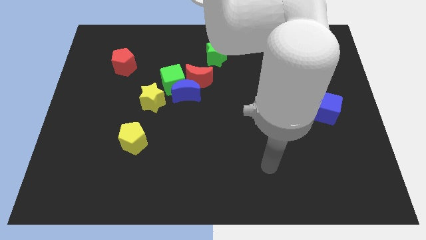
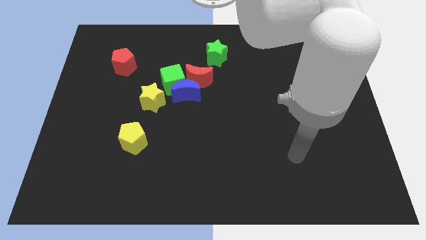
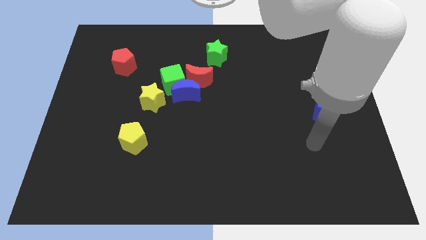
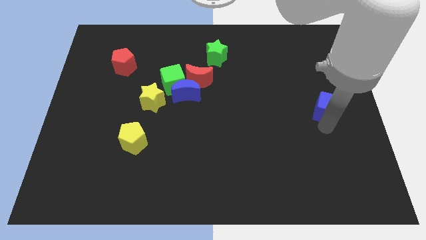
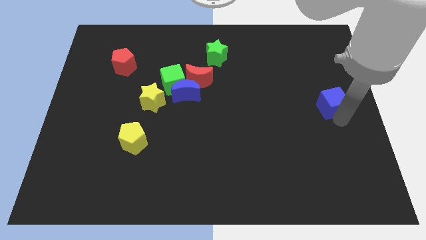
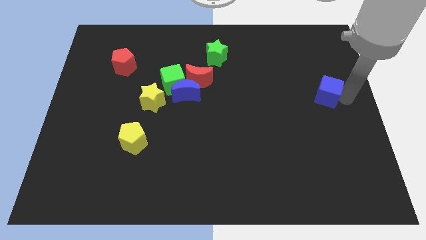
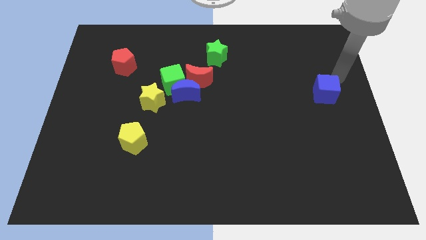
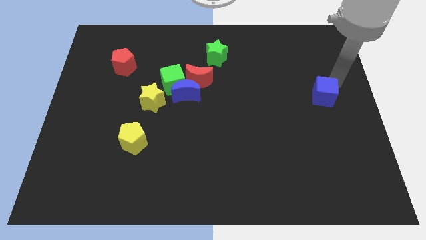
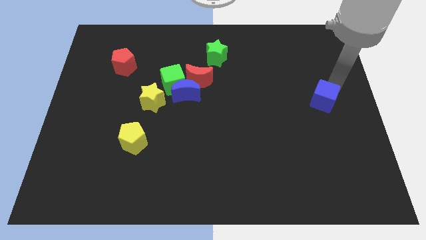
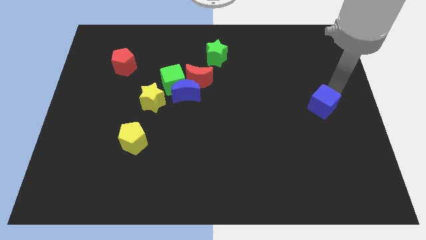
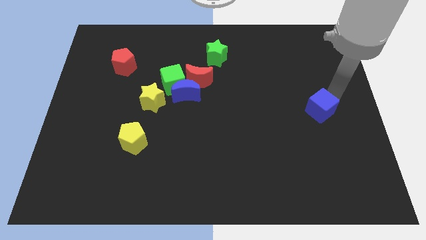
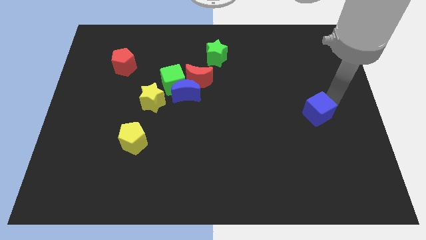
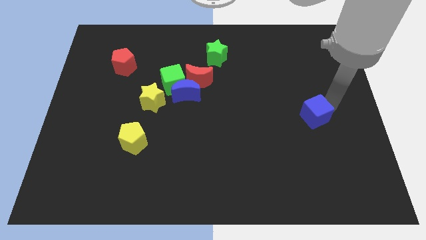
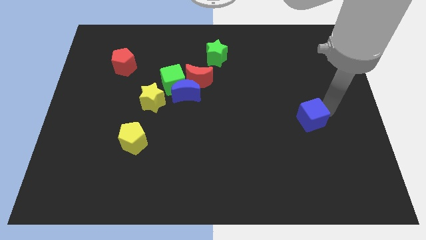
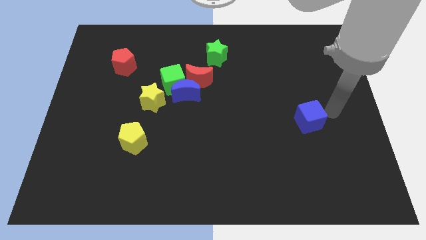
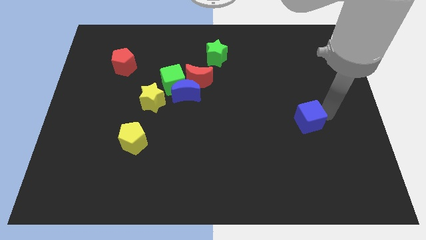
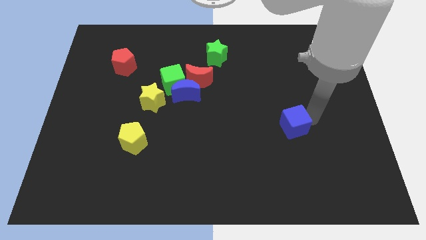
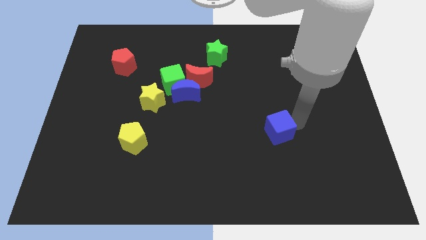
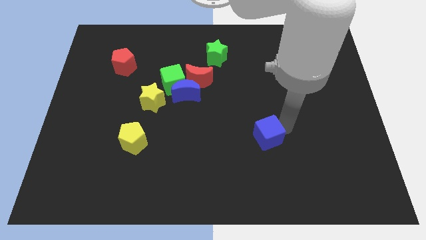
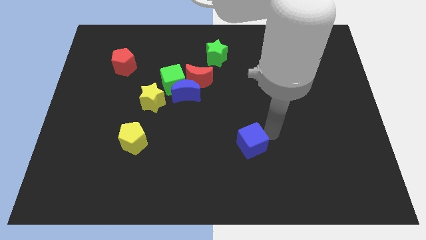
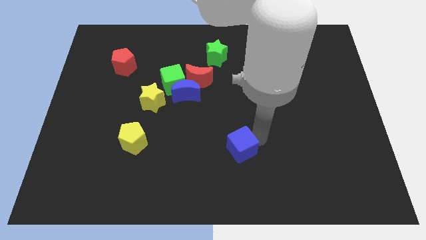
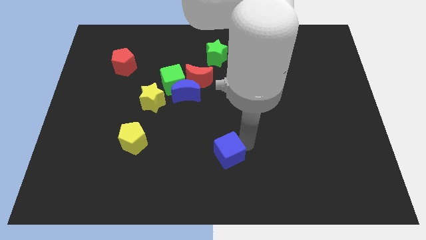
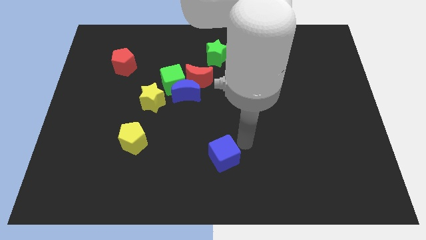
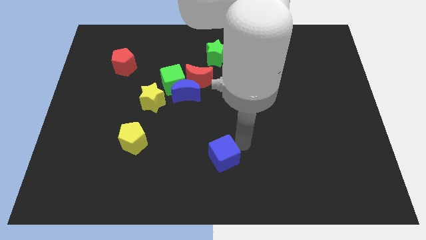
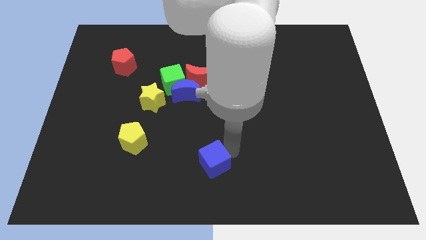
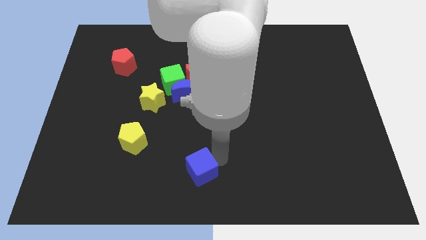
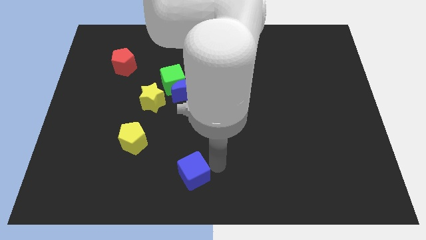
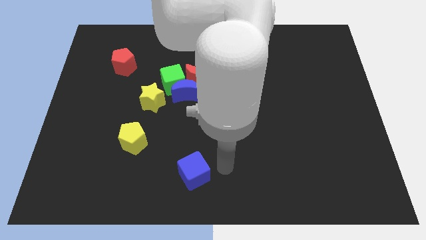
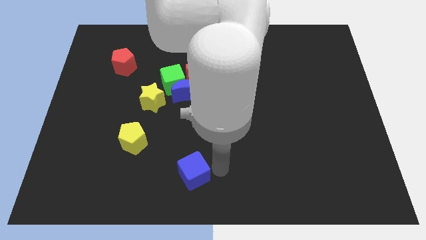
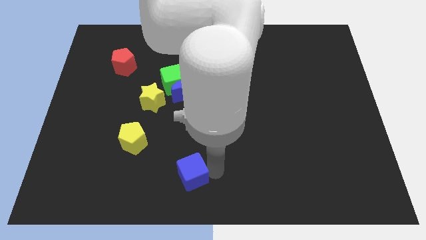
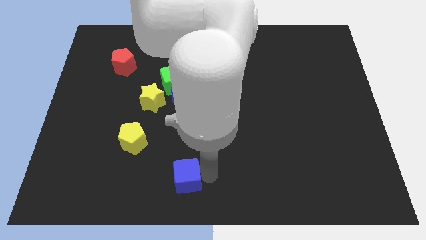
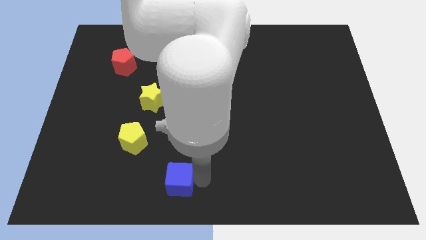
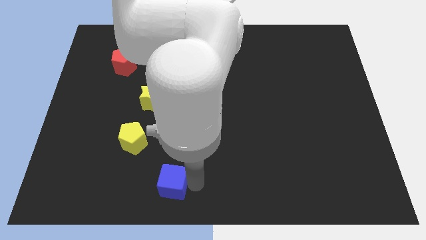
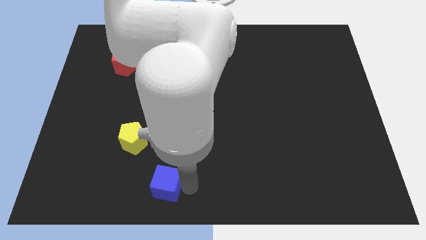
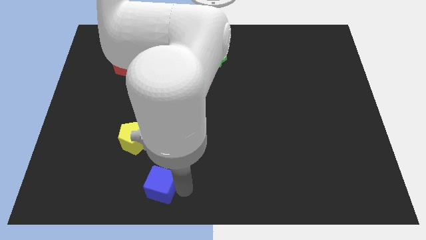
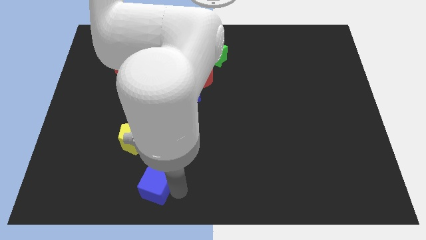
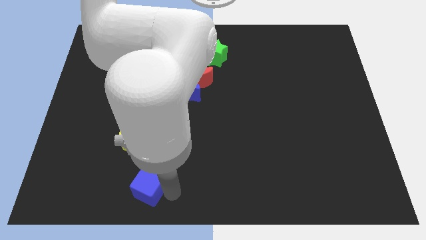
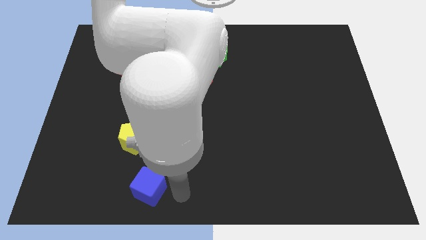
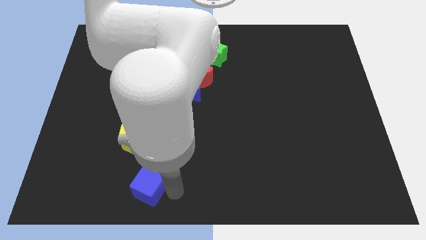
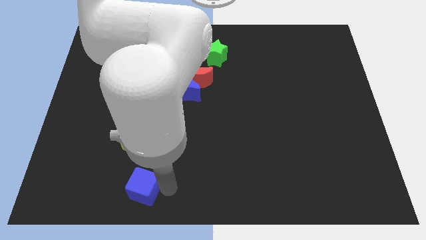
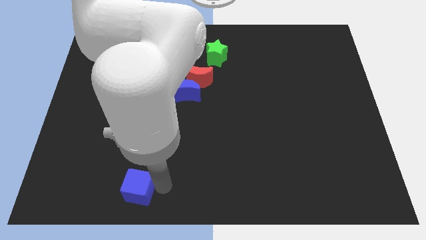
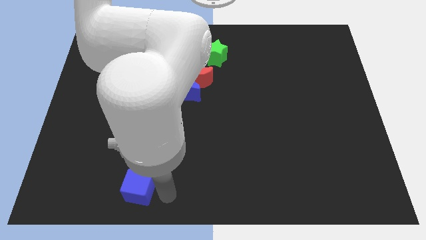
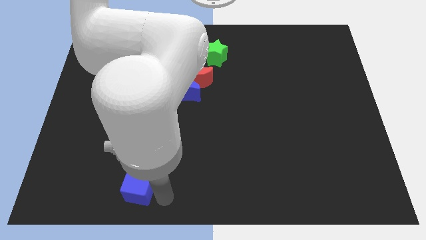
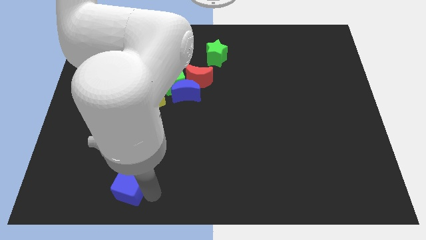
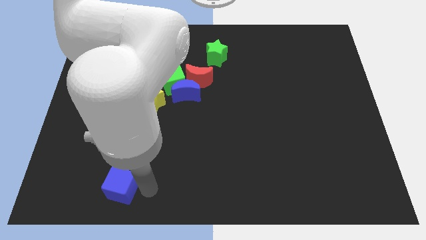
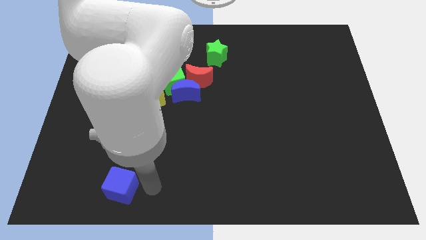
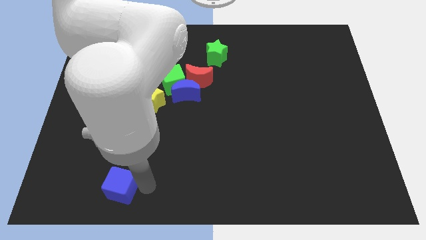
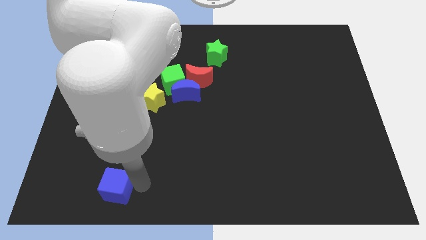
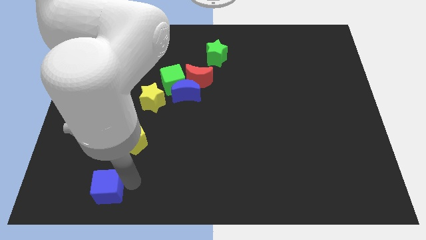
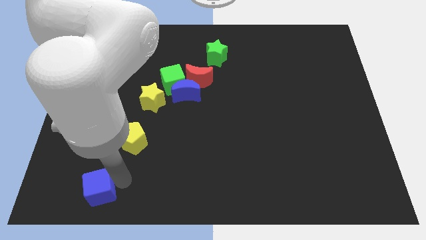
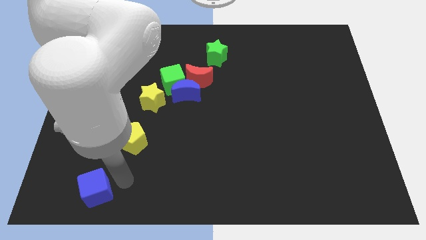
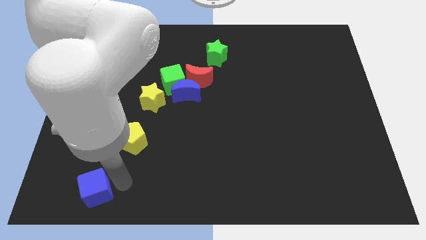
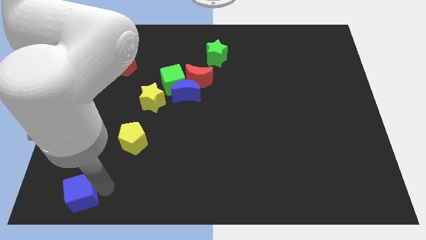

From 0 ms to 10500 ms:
push the blue cube to the bottom left of the board

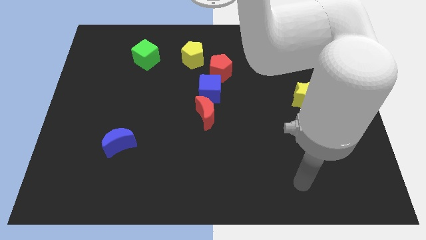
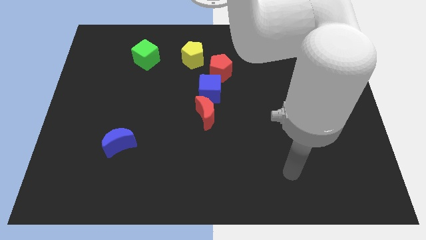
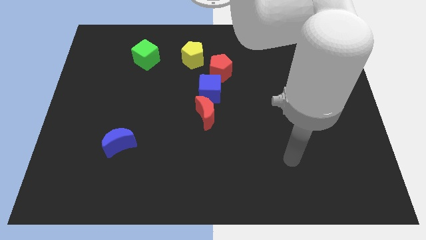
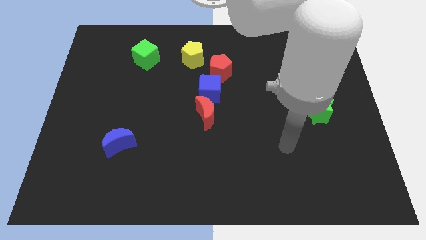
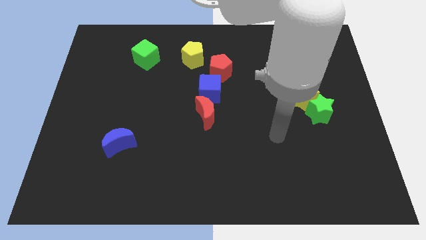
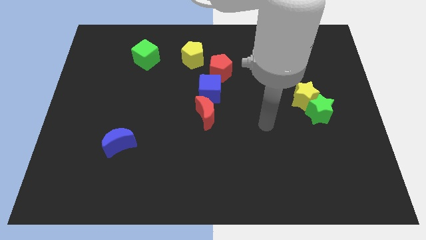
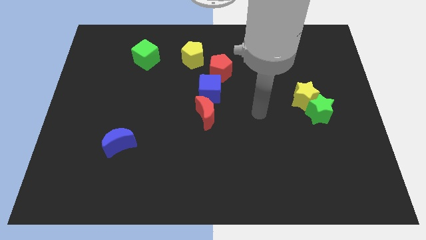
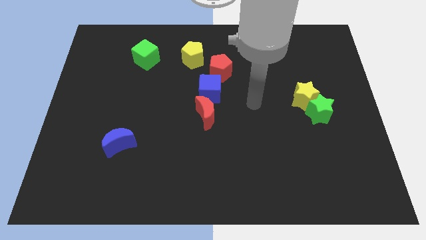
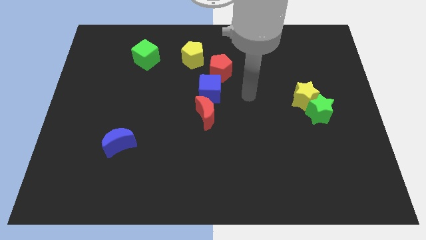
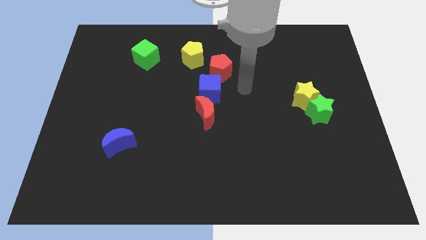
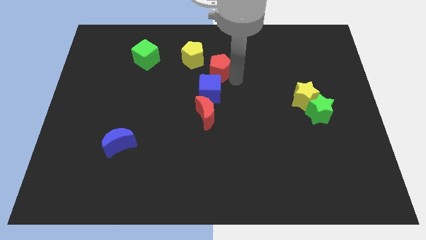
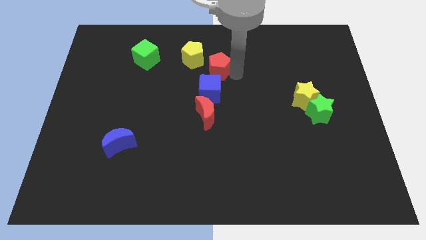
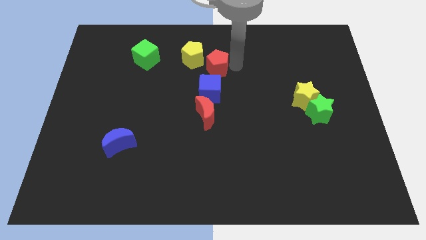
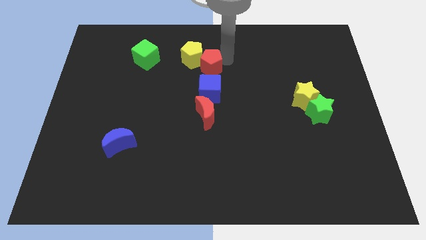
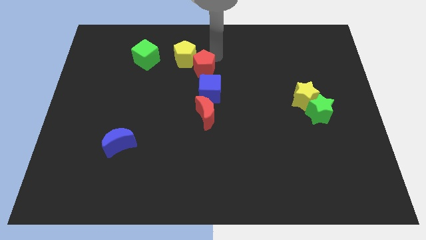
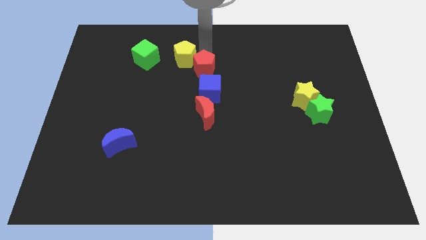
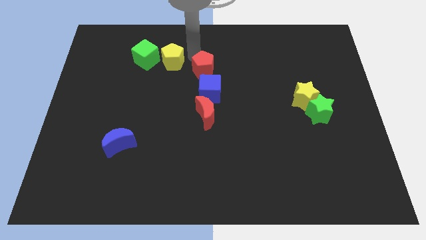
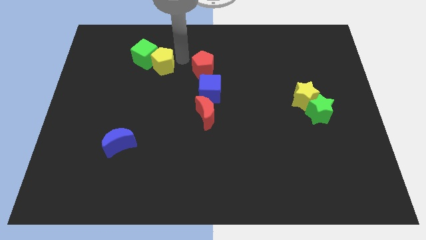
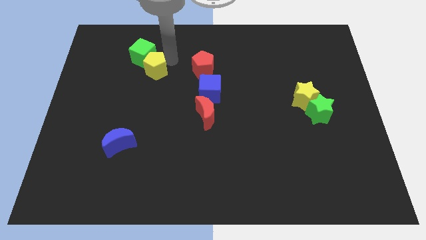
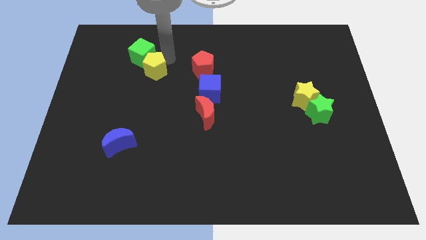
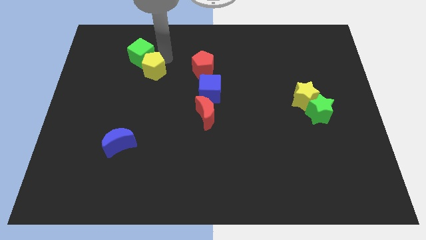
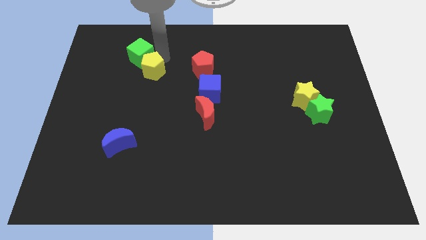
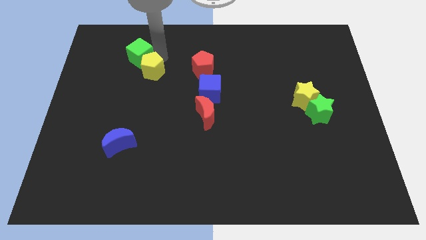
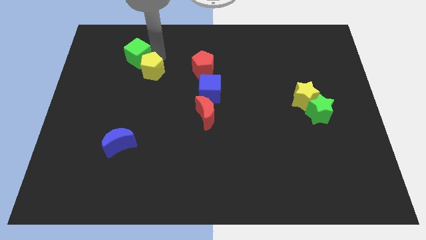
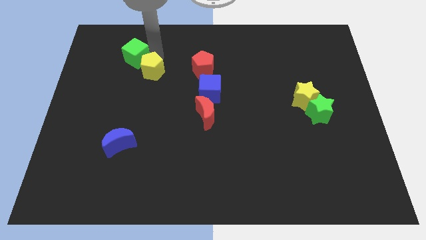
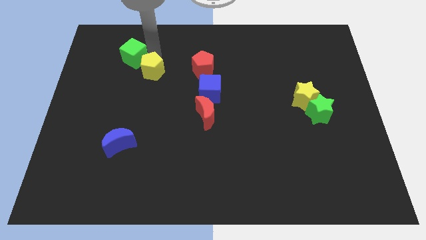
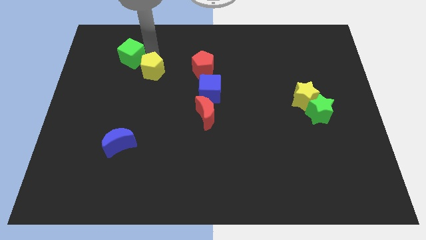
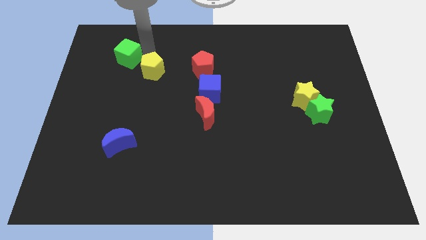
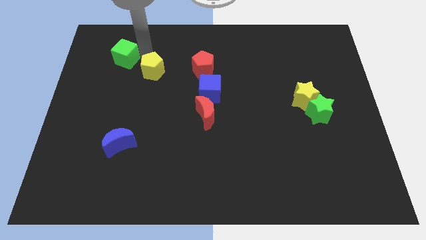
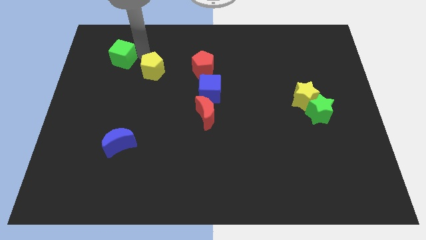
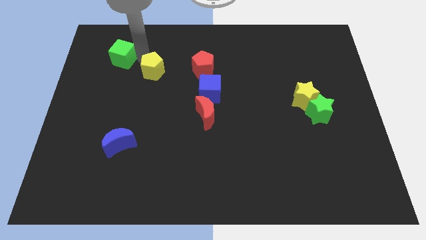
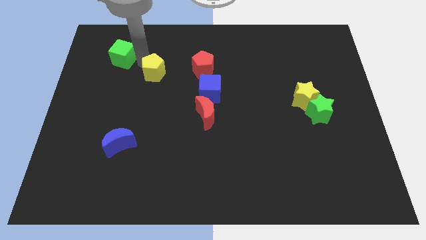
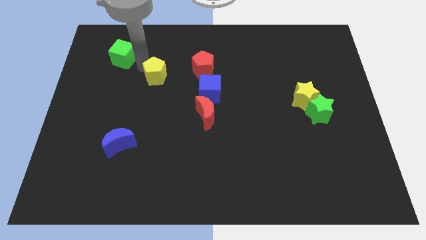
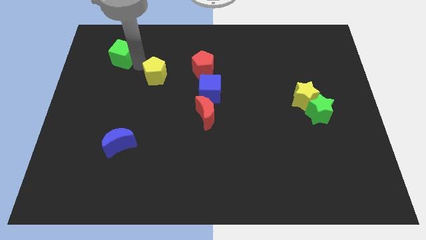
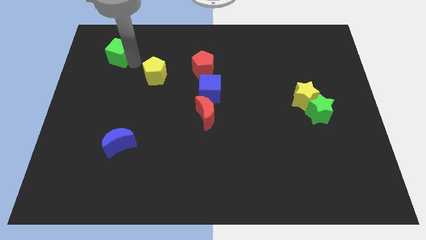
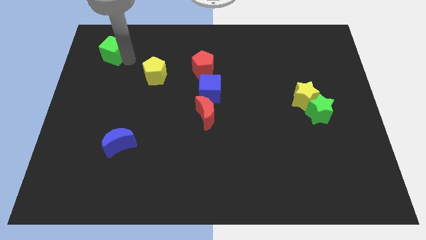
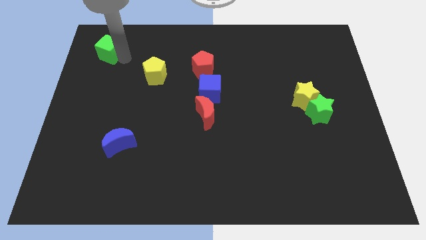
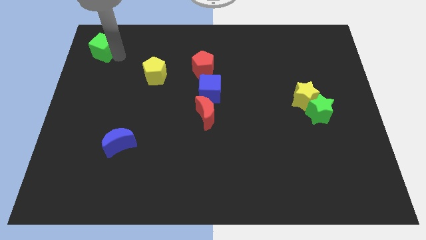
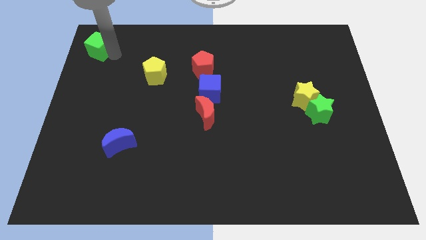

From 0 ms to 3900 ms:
put the green cube to the top left
